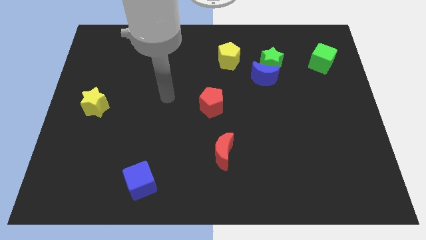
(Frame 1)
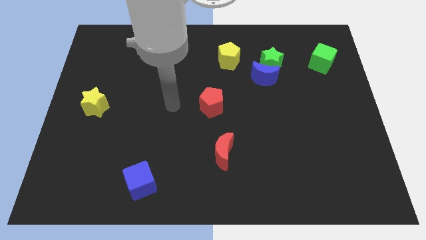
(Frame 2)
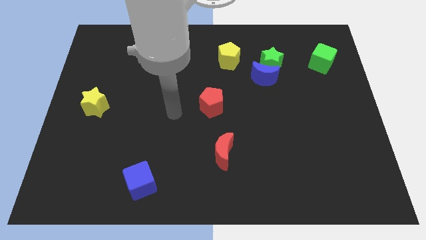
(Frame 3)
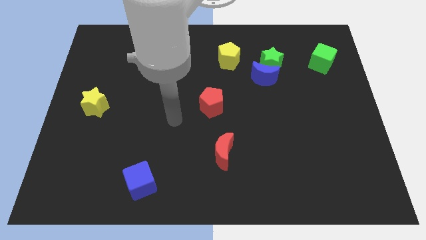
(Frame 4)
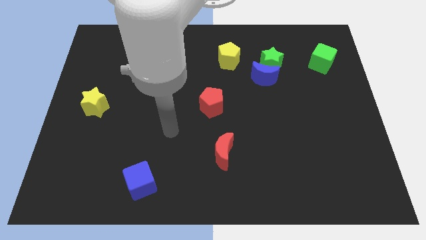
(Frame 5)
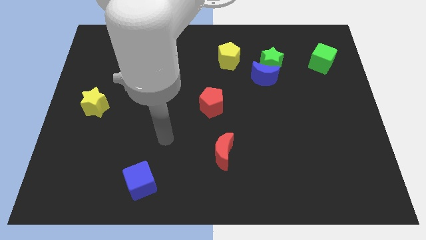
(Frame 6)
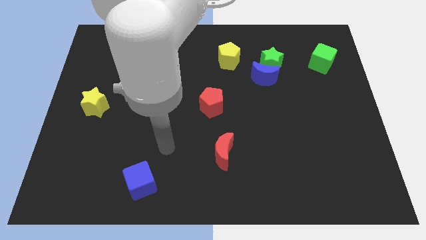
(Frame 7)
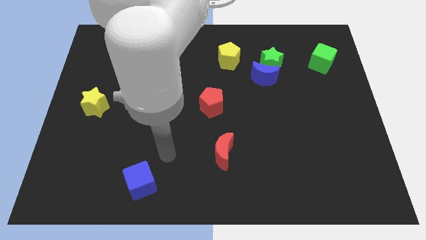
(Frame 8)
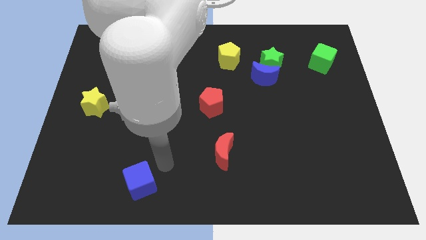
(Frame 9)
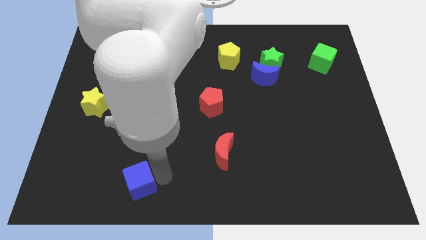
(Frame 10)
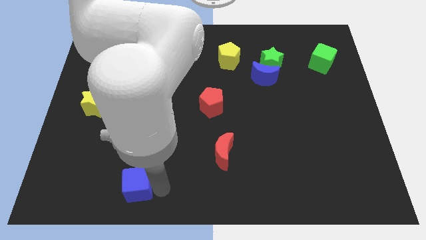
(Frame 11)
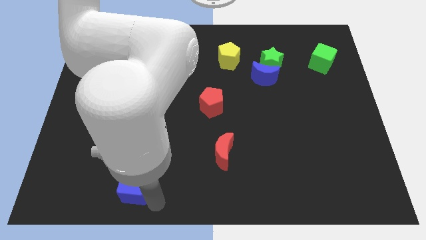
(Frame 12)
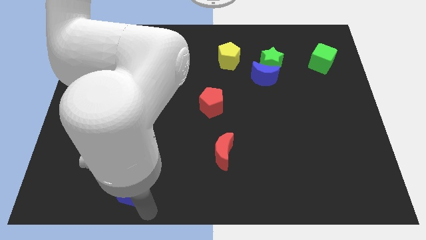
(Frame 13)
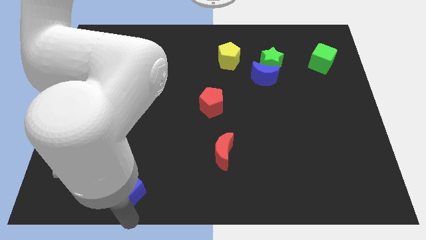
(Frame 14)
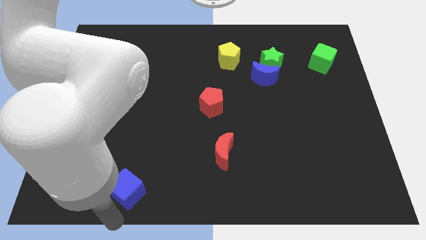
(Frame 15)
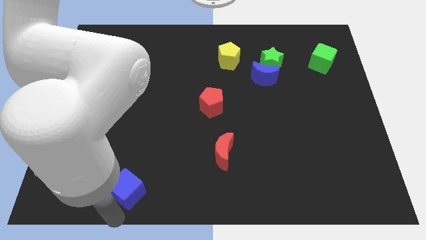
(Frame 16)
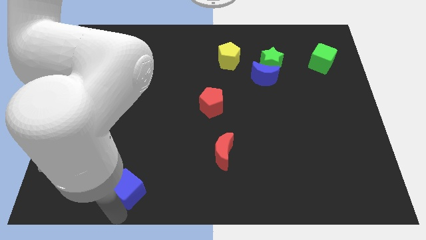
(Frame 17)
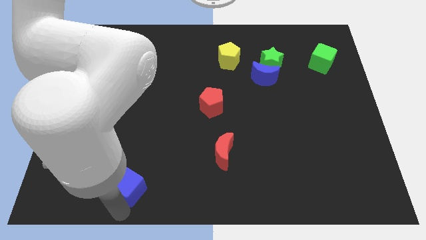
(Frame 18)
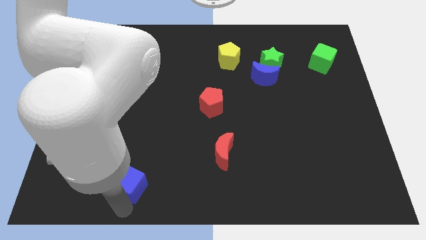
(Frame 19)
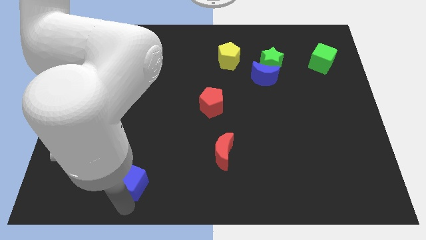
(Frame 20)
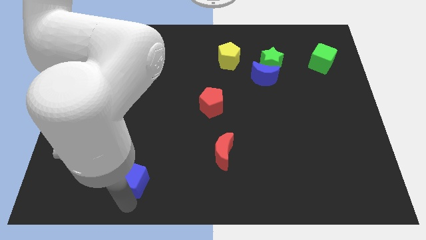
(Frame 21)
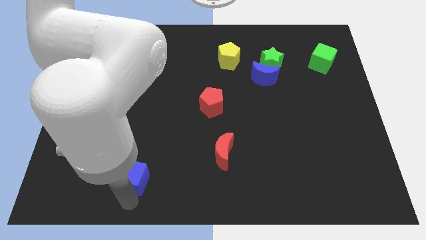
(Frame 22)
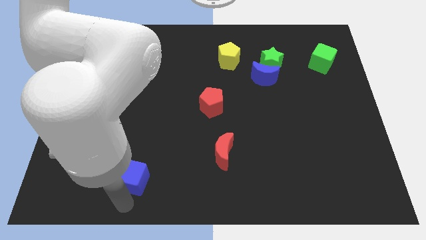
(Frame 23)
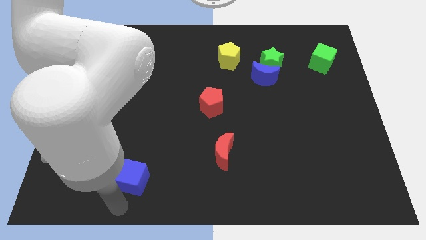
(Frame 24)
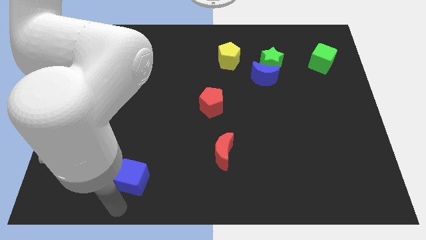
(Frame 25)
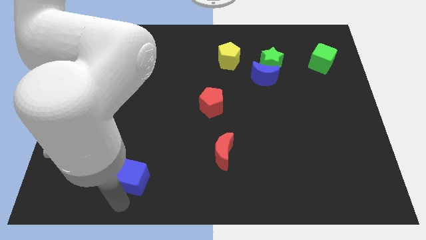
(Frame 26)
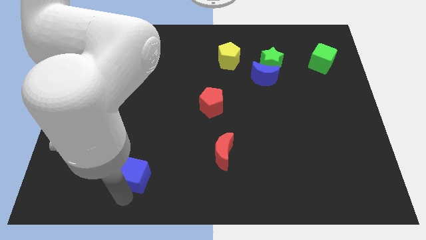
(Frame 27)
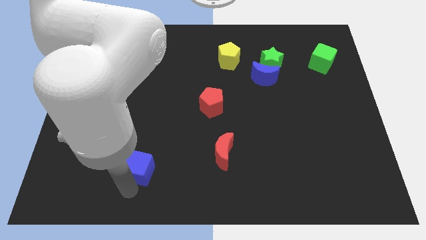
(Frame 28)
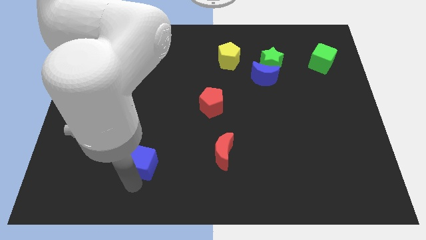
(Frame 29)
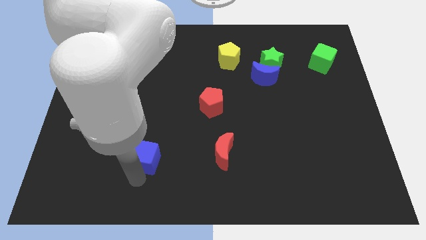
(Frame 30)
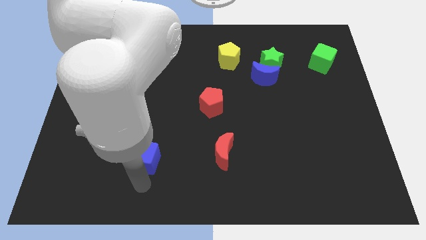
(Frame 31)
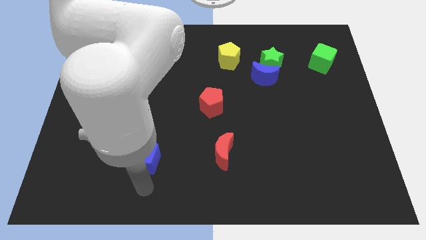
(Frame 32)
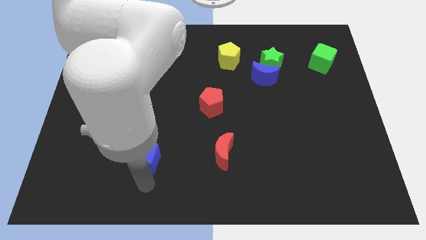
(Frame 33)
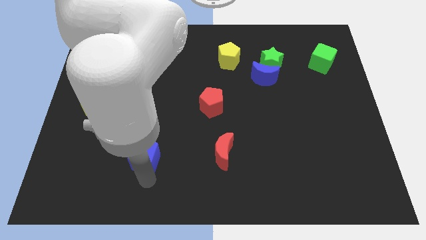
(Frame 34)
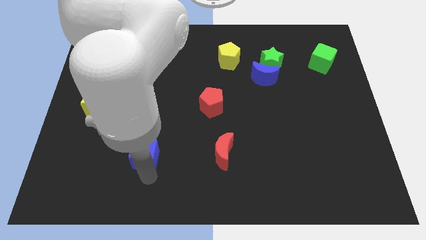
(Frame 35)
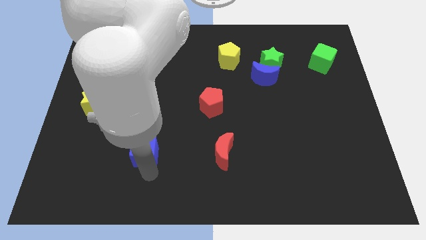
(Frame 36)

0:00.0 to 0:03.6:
move the blue cube a little up

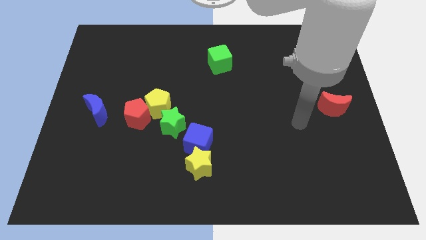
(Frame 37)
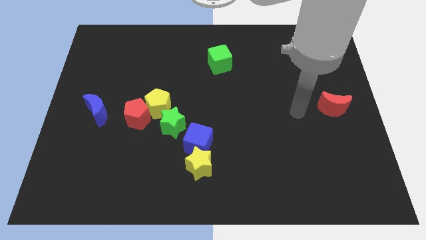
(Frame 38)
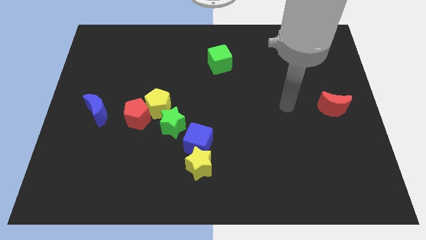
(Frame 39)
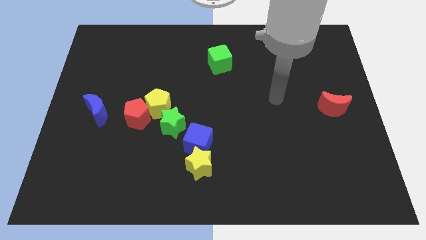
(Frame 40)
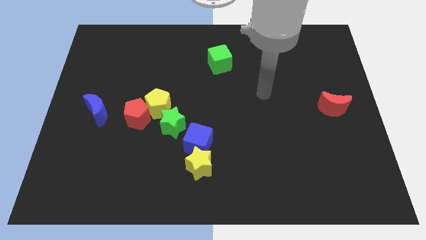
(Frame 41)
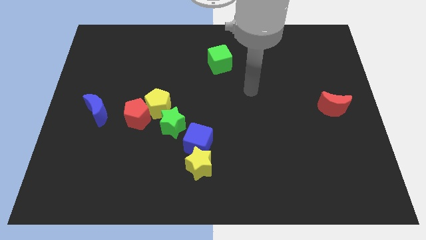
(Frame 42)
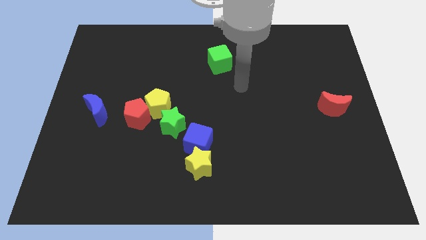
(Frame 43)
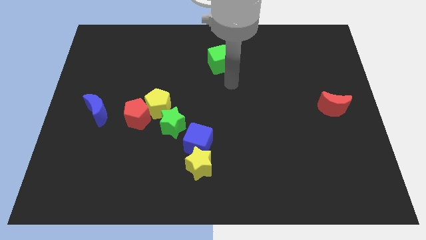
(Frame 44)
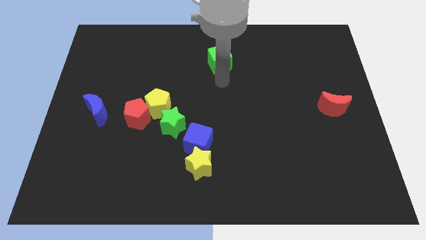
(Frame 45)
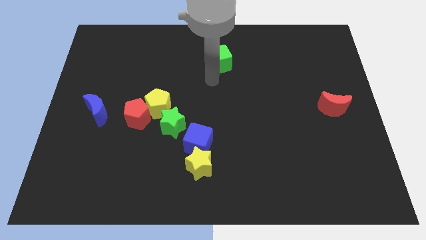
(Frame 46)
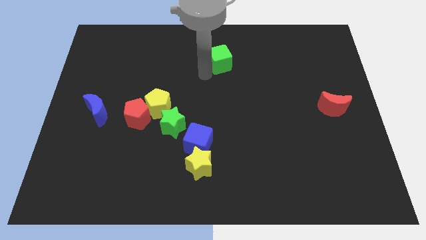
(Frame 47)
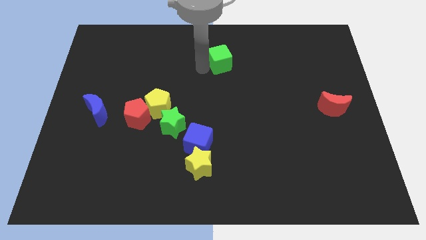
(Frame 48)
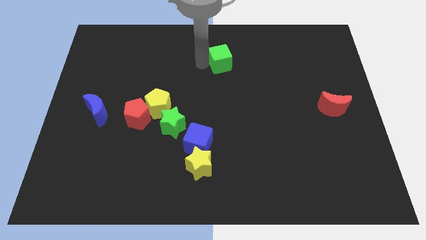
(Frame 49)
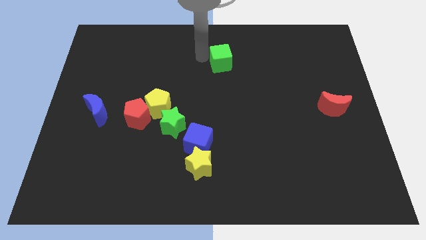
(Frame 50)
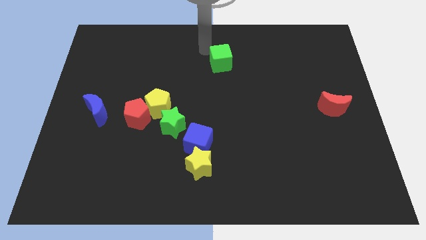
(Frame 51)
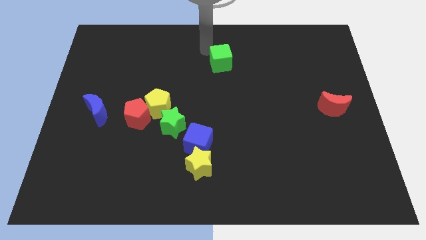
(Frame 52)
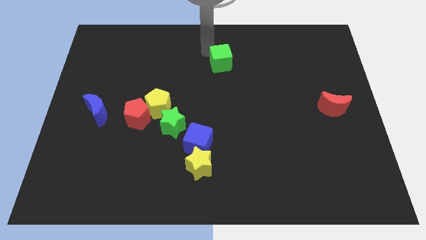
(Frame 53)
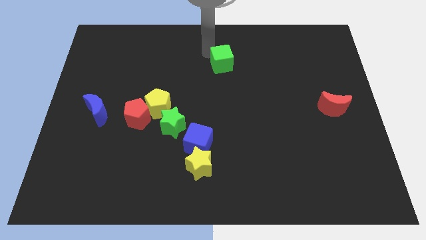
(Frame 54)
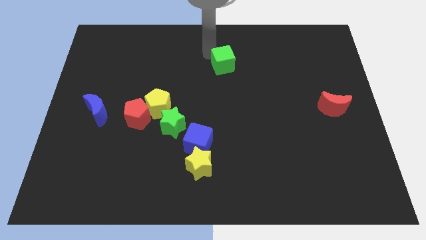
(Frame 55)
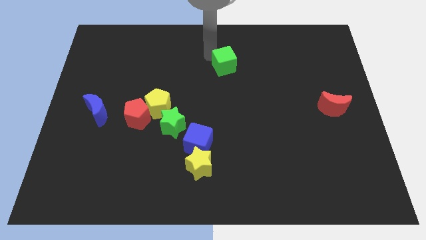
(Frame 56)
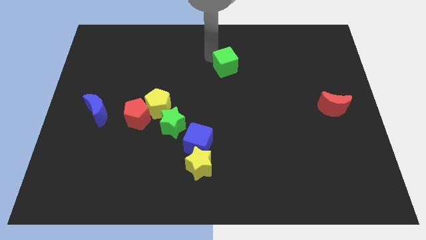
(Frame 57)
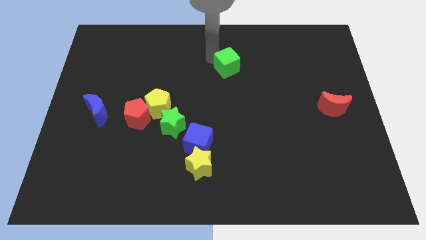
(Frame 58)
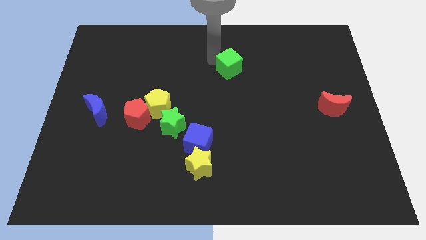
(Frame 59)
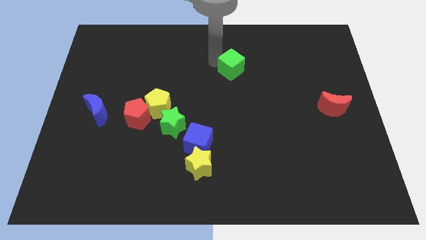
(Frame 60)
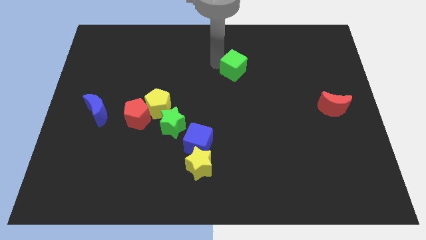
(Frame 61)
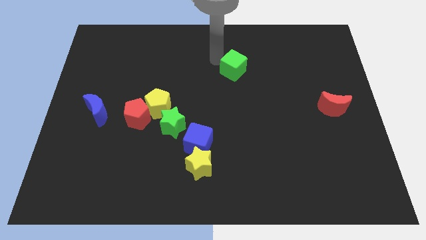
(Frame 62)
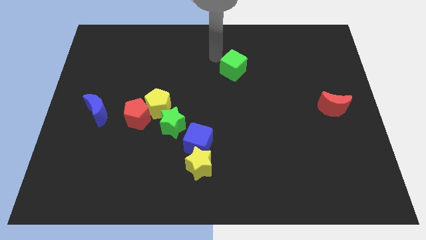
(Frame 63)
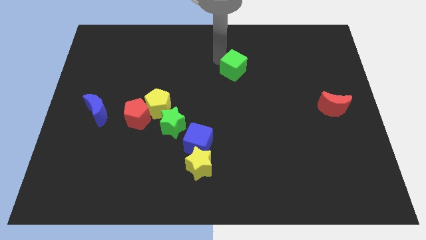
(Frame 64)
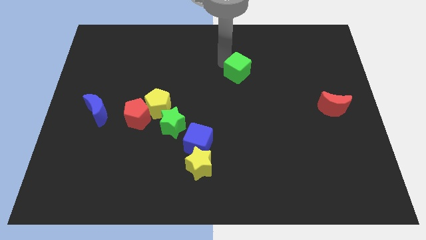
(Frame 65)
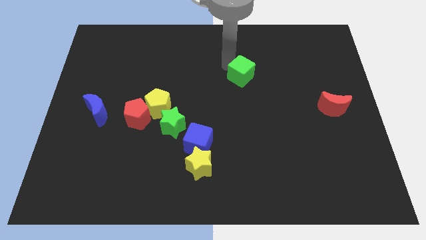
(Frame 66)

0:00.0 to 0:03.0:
move the green cube down and to the right diagonally a bit

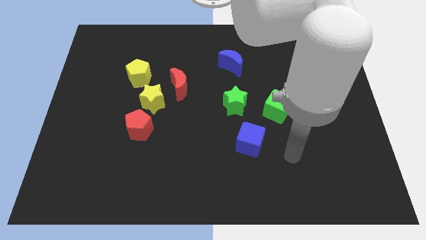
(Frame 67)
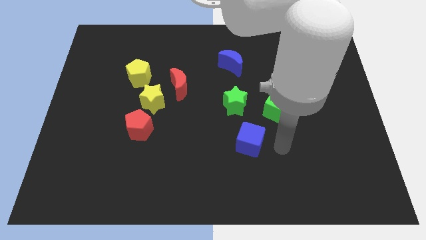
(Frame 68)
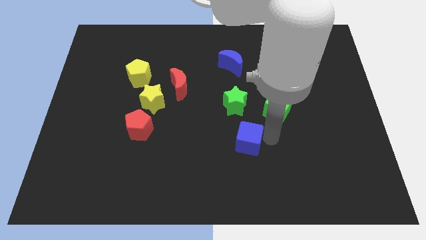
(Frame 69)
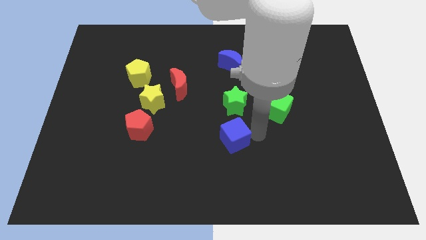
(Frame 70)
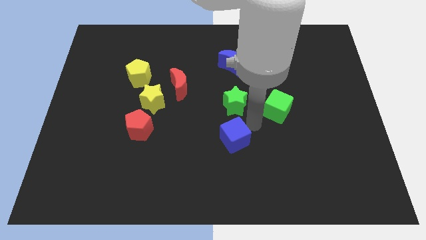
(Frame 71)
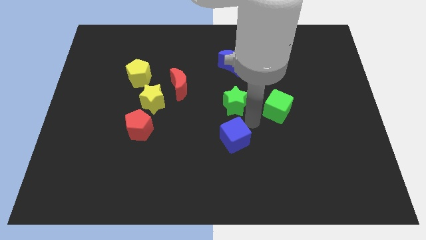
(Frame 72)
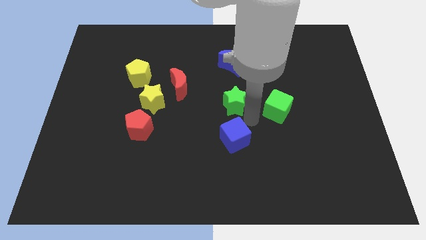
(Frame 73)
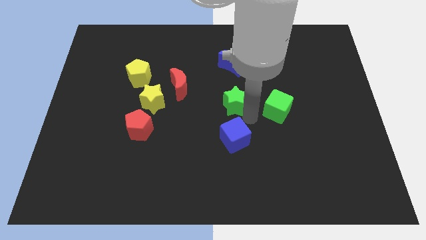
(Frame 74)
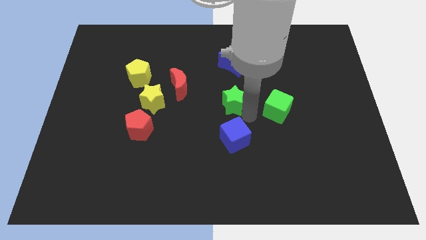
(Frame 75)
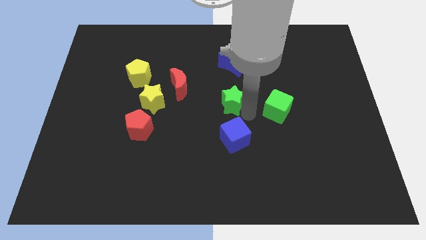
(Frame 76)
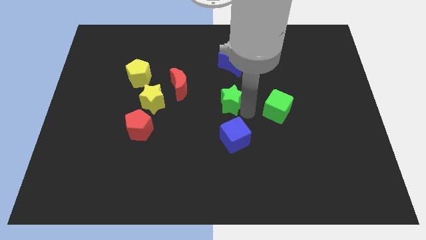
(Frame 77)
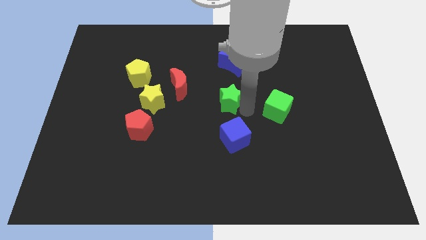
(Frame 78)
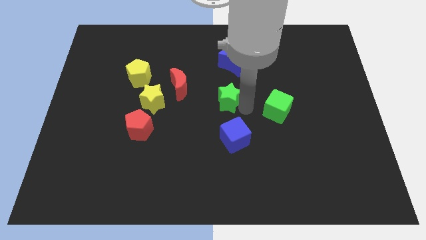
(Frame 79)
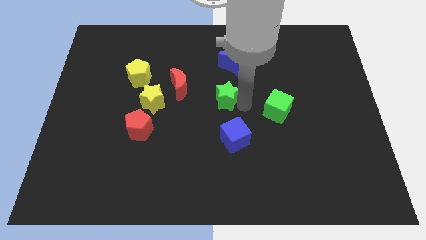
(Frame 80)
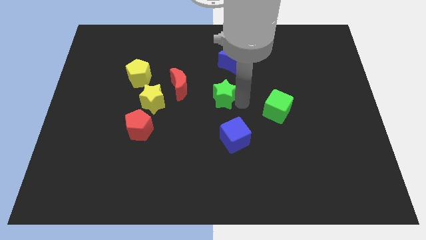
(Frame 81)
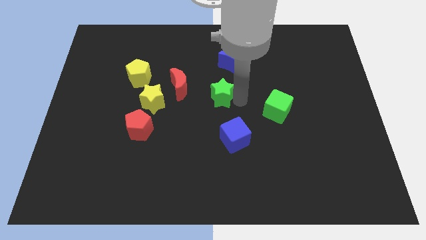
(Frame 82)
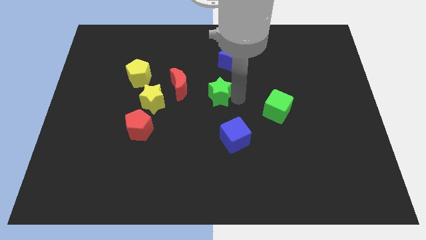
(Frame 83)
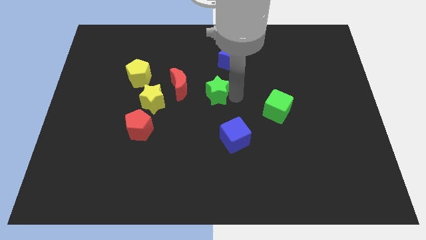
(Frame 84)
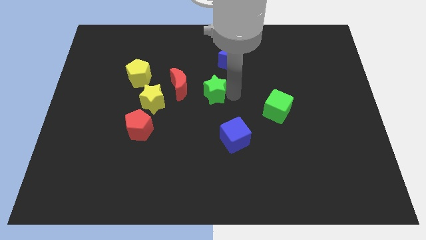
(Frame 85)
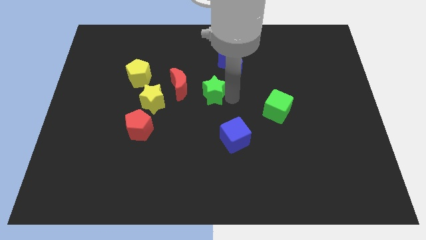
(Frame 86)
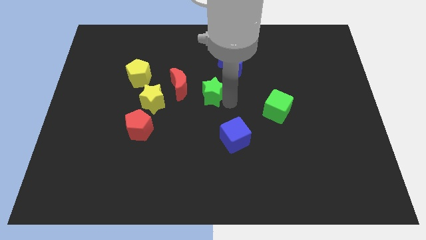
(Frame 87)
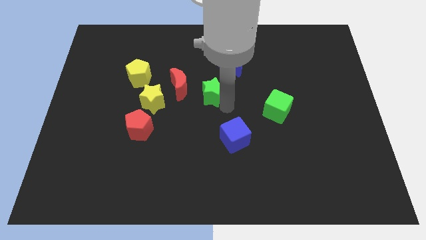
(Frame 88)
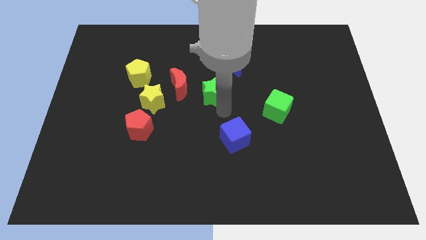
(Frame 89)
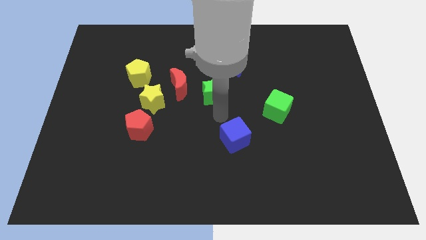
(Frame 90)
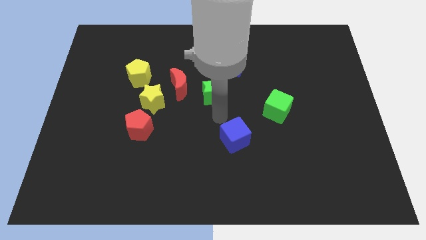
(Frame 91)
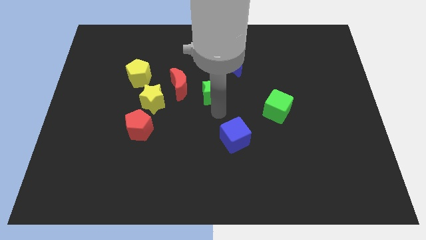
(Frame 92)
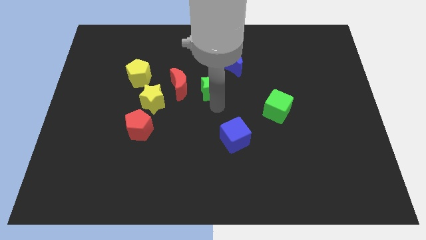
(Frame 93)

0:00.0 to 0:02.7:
slightly slide the green star upwards and to the left diagonally
